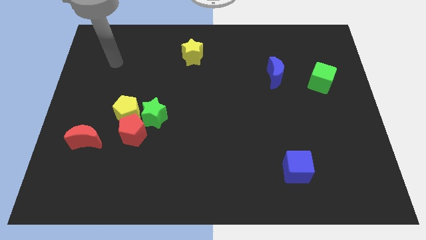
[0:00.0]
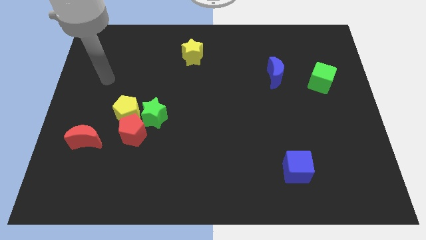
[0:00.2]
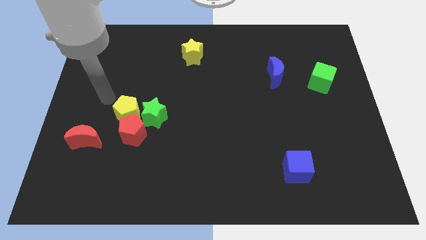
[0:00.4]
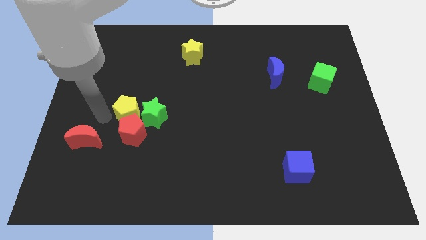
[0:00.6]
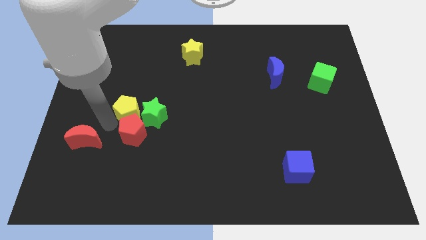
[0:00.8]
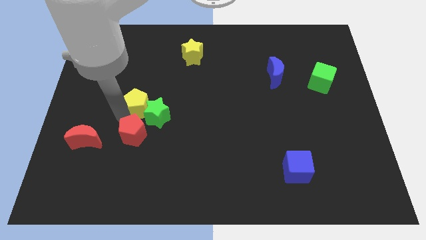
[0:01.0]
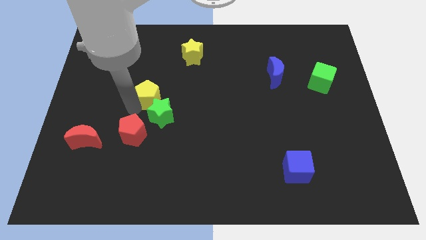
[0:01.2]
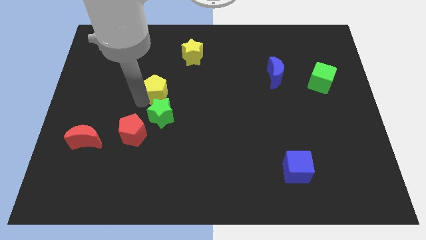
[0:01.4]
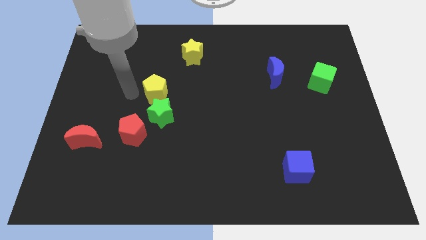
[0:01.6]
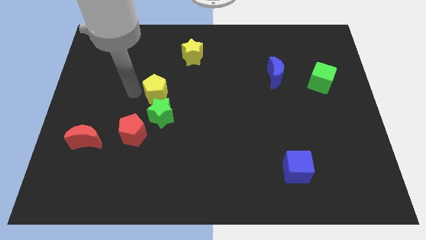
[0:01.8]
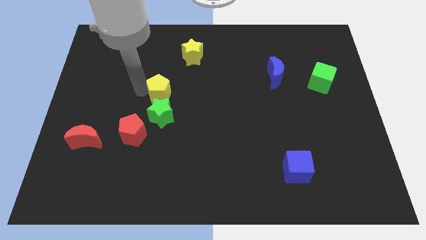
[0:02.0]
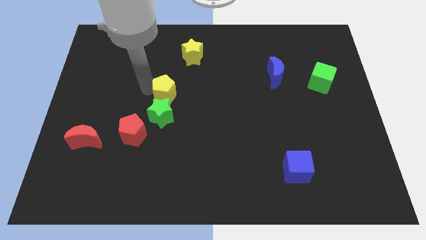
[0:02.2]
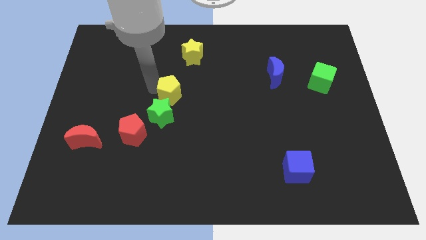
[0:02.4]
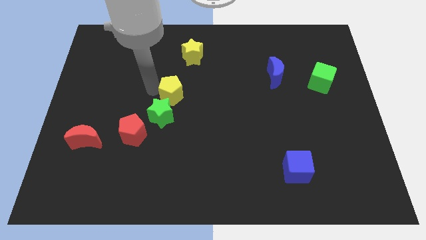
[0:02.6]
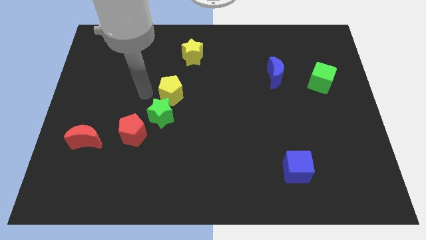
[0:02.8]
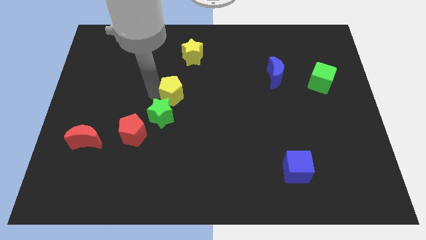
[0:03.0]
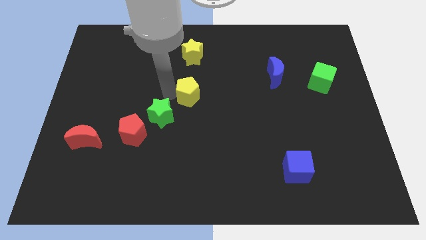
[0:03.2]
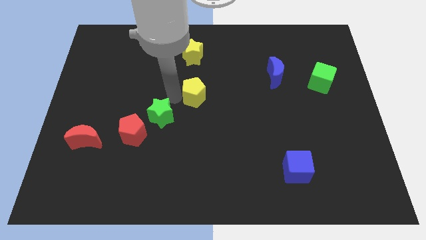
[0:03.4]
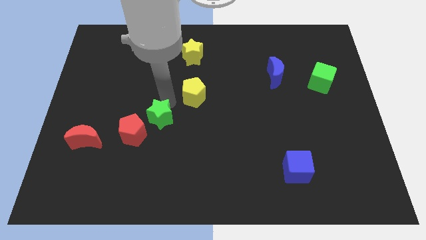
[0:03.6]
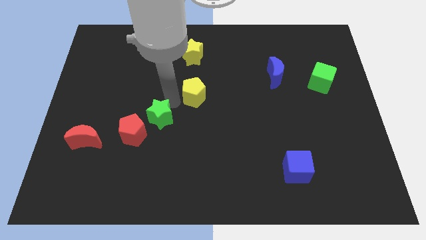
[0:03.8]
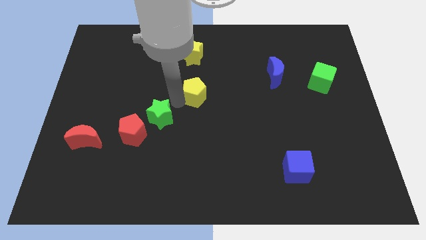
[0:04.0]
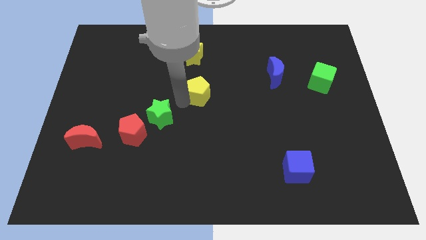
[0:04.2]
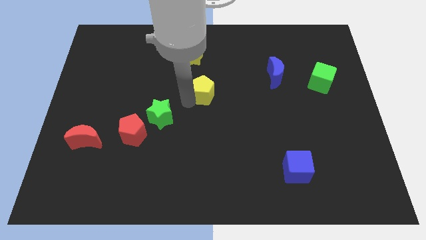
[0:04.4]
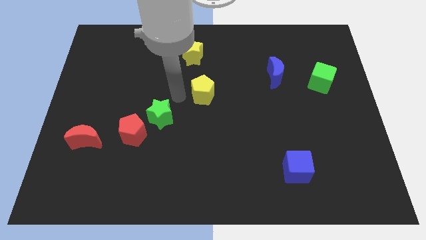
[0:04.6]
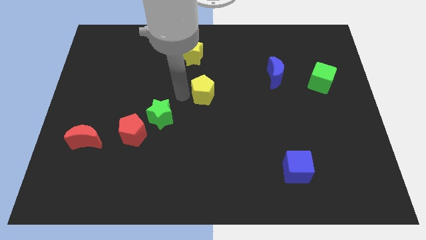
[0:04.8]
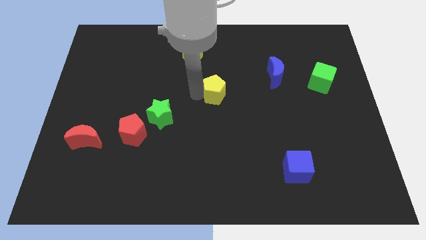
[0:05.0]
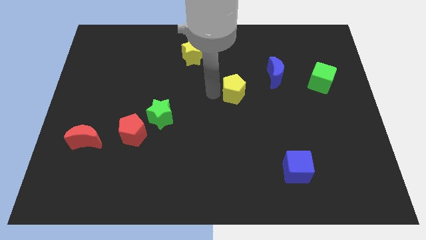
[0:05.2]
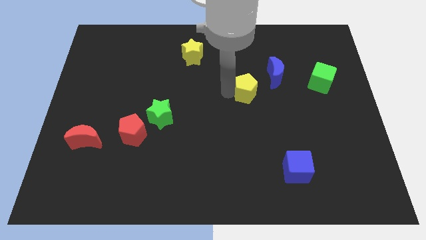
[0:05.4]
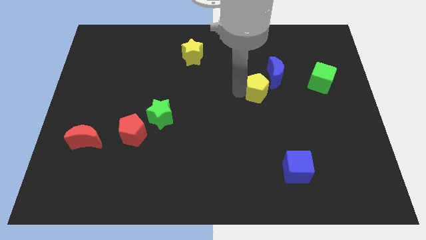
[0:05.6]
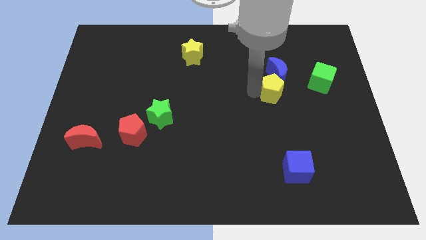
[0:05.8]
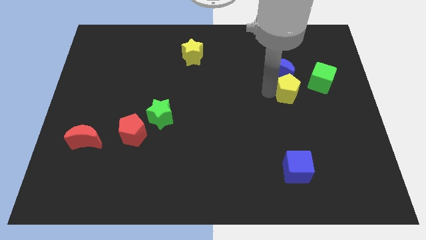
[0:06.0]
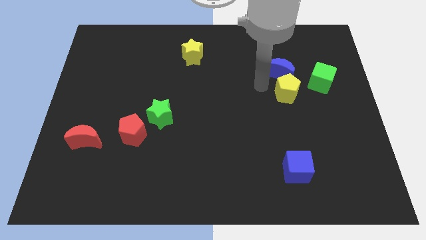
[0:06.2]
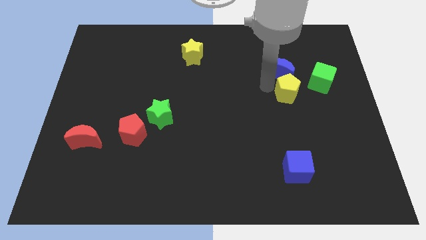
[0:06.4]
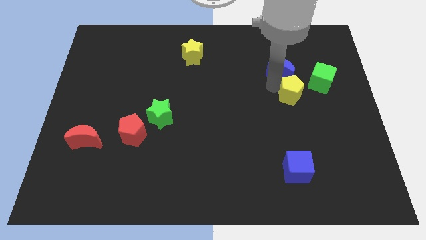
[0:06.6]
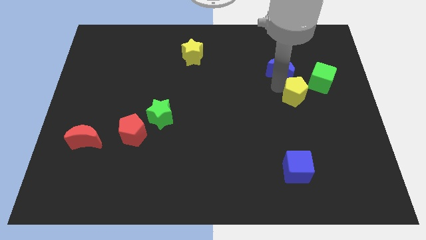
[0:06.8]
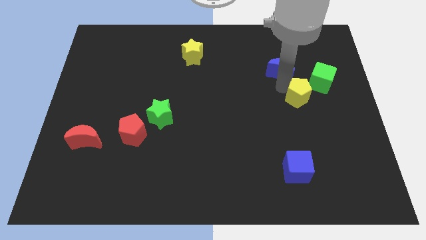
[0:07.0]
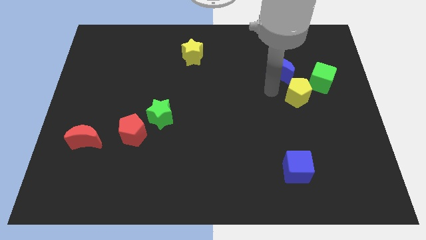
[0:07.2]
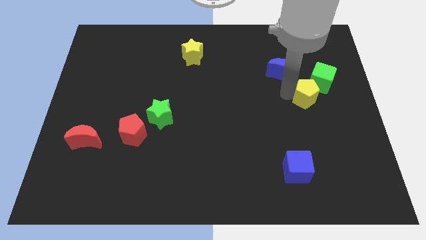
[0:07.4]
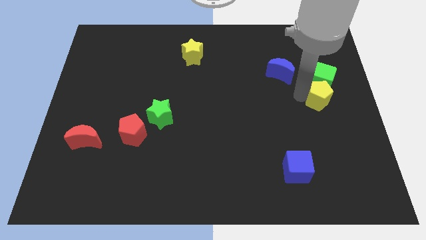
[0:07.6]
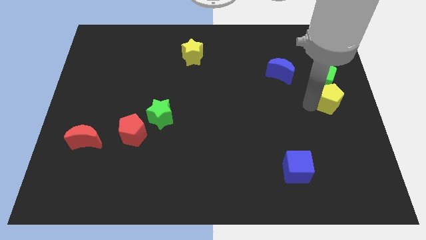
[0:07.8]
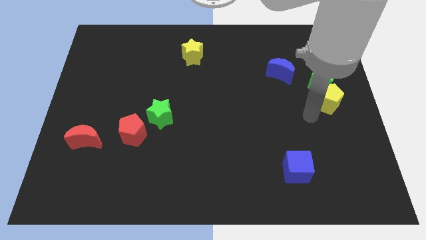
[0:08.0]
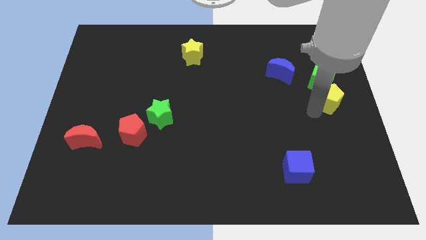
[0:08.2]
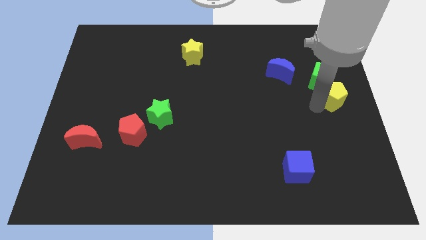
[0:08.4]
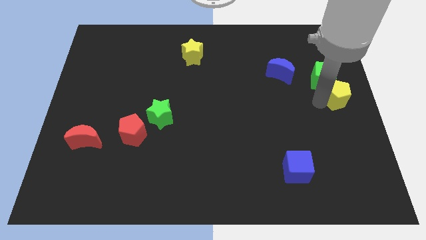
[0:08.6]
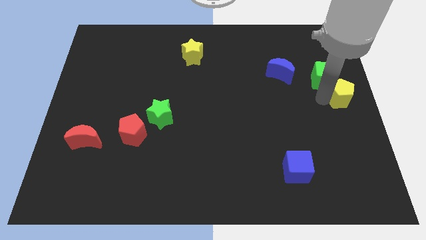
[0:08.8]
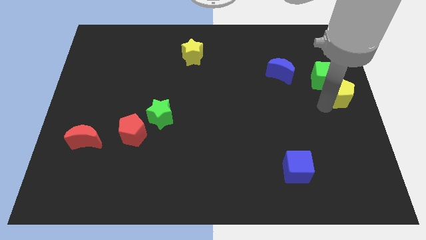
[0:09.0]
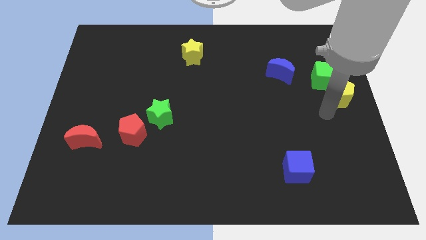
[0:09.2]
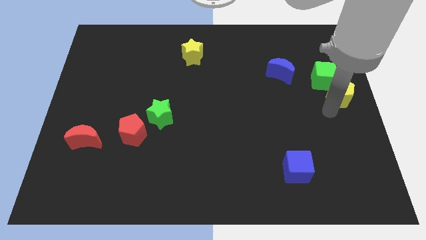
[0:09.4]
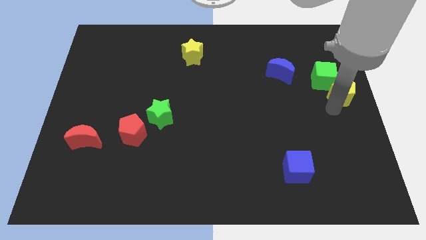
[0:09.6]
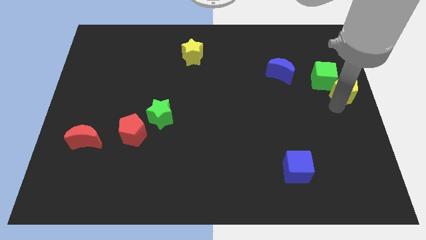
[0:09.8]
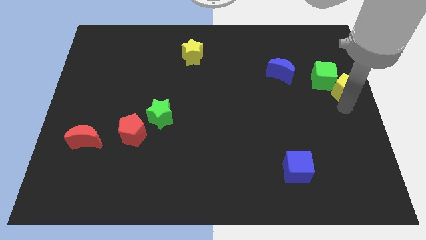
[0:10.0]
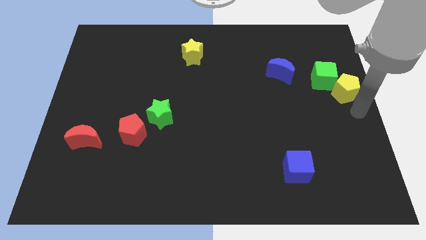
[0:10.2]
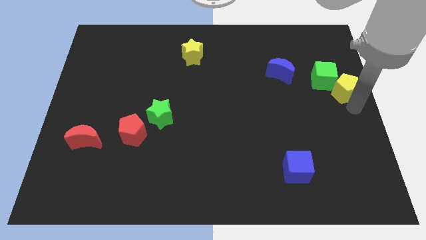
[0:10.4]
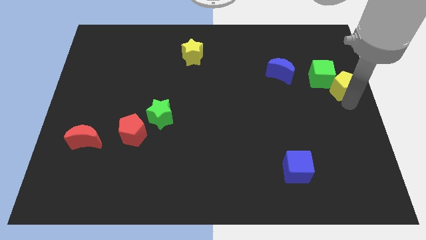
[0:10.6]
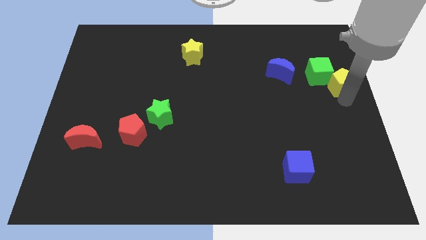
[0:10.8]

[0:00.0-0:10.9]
put the yellow pentagon to the right of the blue moon

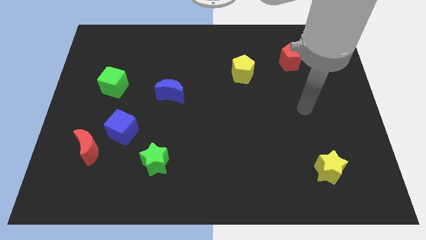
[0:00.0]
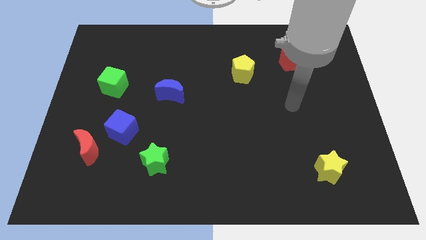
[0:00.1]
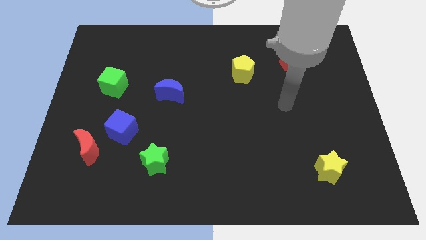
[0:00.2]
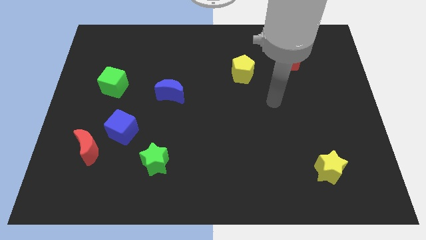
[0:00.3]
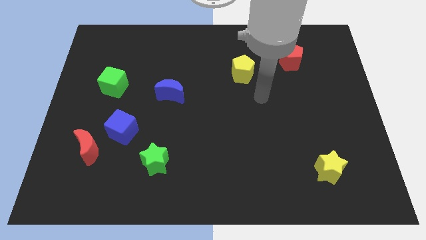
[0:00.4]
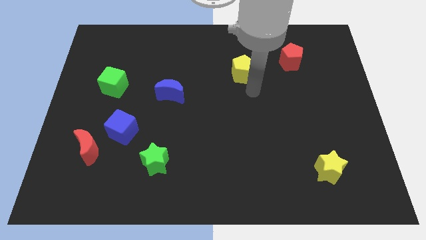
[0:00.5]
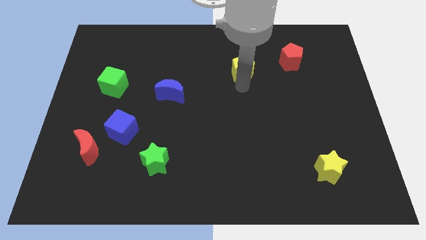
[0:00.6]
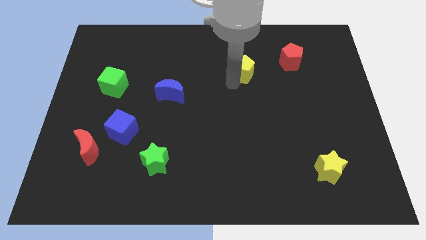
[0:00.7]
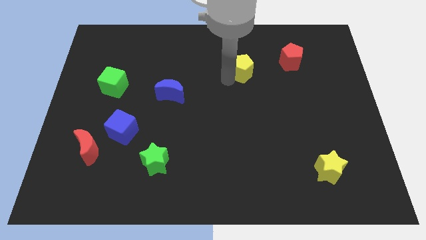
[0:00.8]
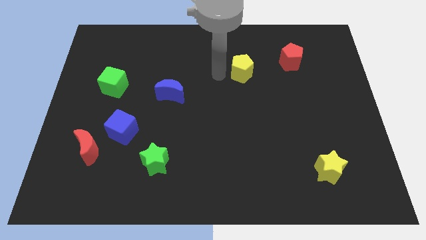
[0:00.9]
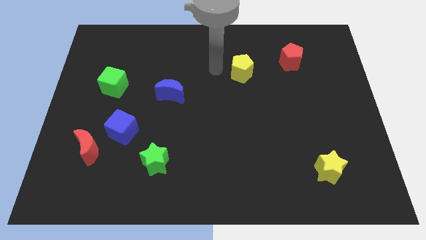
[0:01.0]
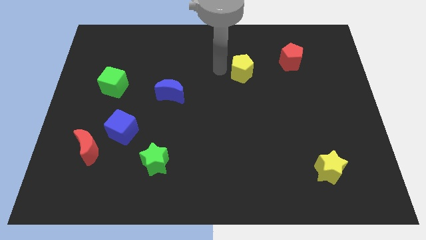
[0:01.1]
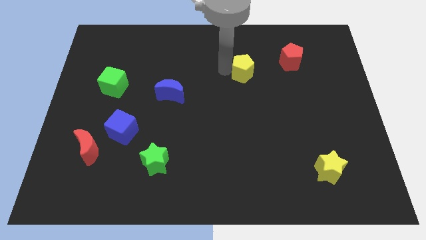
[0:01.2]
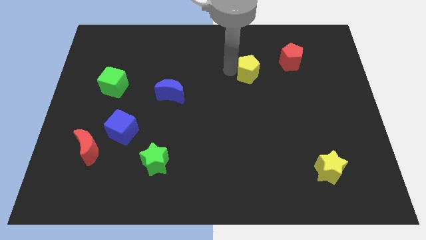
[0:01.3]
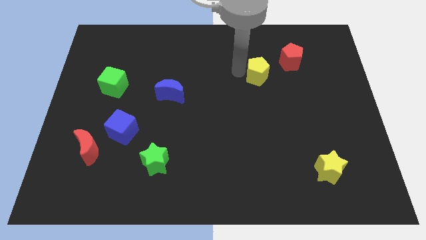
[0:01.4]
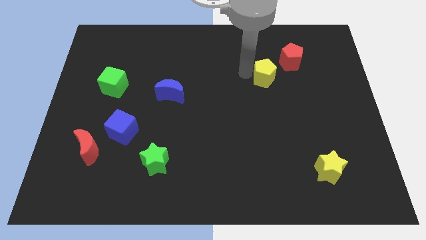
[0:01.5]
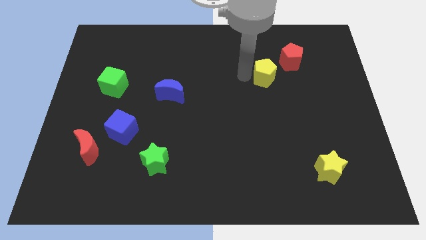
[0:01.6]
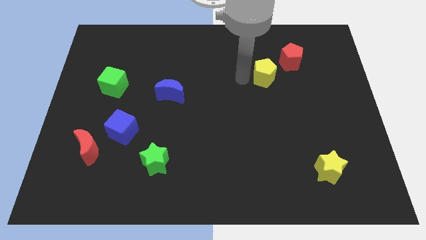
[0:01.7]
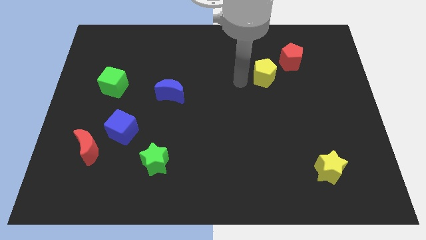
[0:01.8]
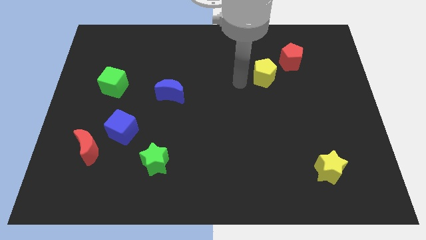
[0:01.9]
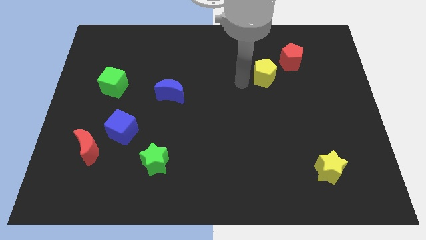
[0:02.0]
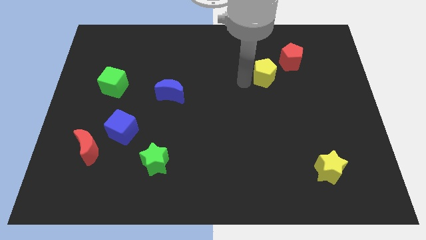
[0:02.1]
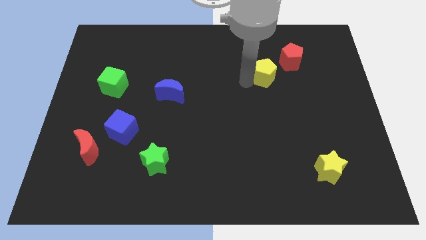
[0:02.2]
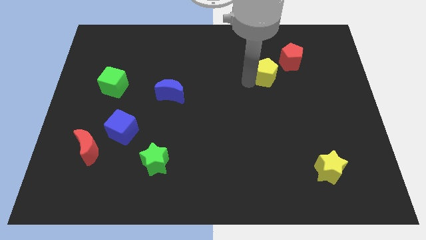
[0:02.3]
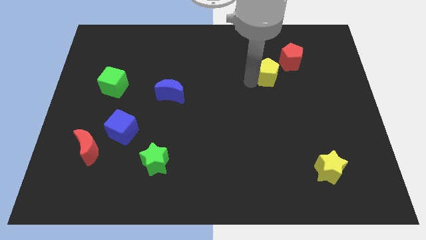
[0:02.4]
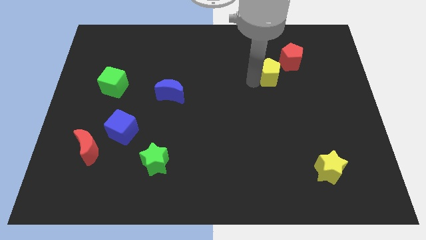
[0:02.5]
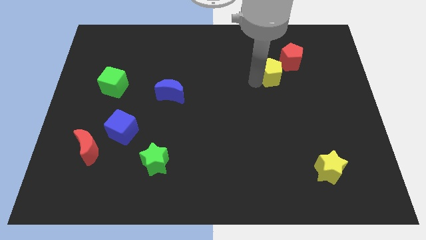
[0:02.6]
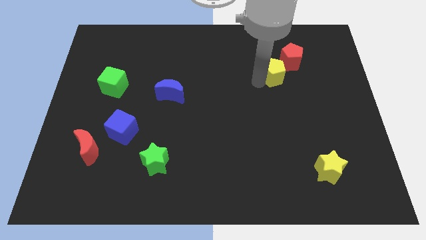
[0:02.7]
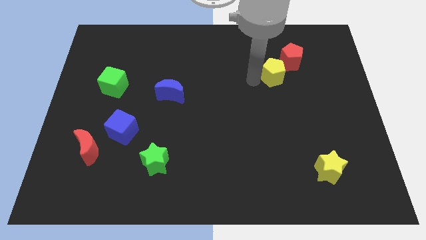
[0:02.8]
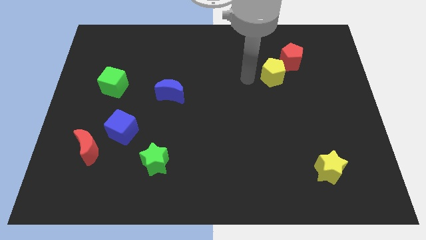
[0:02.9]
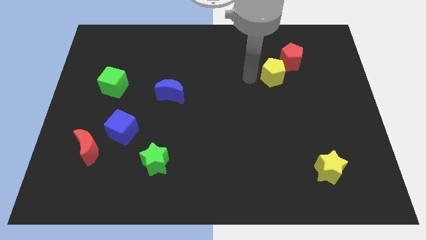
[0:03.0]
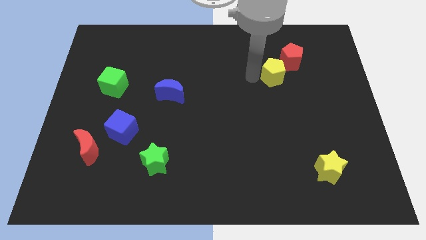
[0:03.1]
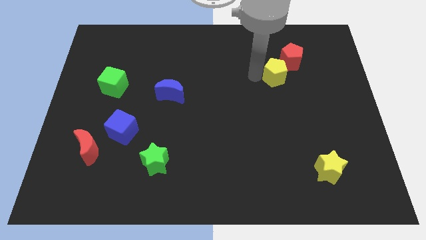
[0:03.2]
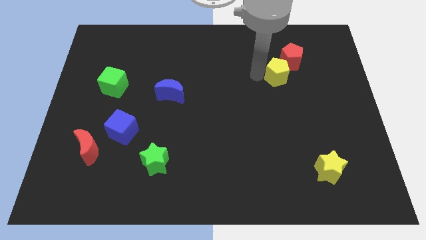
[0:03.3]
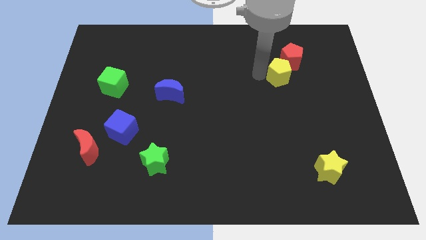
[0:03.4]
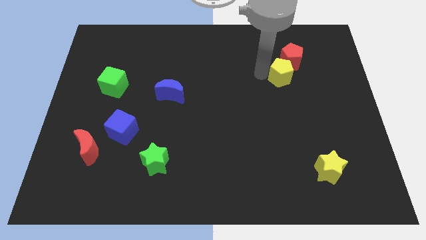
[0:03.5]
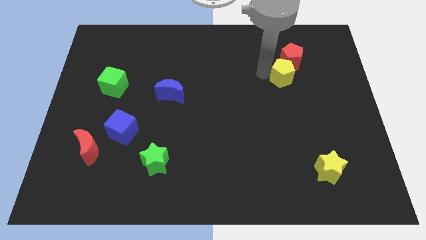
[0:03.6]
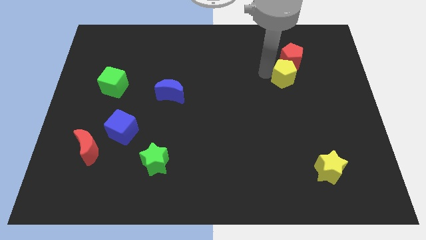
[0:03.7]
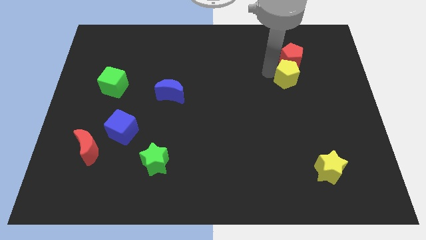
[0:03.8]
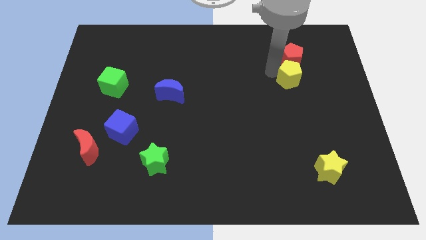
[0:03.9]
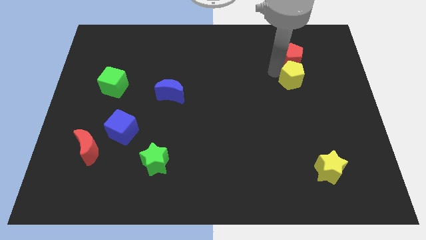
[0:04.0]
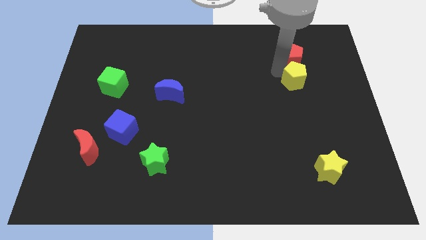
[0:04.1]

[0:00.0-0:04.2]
push the yellow pentagon to the bottom right side of the red pentagon
